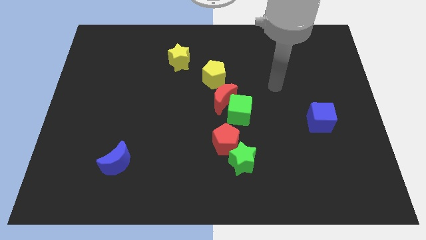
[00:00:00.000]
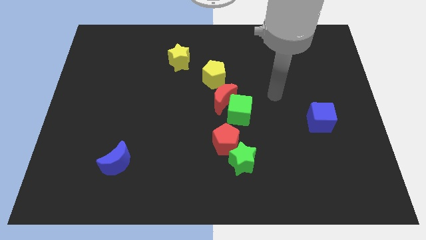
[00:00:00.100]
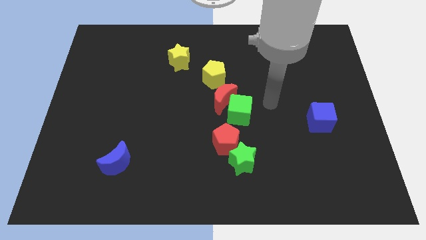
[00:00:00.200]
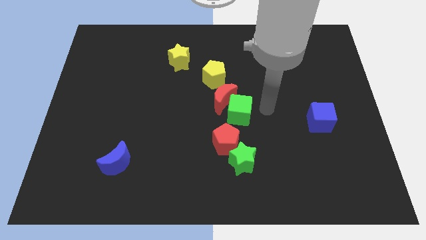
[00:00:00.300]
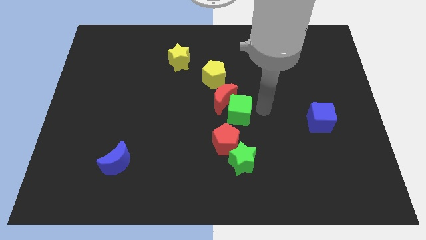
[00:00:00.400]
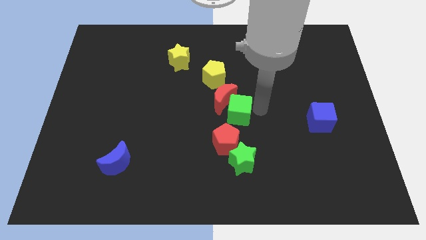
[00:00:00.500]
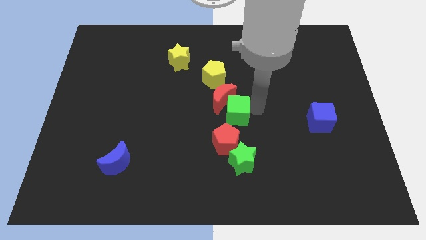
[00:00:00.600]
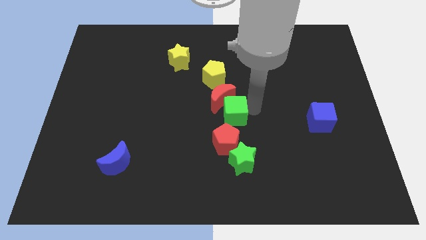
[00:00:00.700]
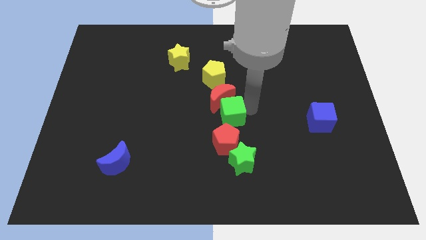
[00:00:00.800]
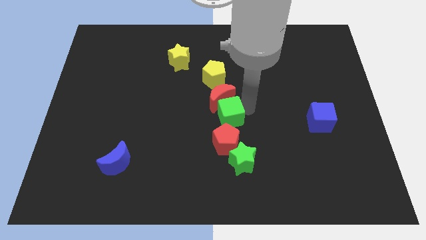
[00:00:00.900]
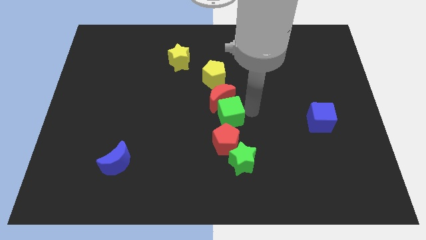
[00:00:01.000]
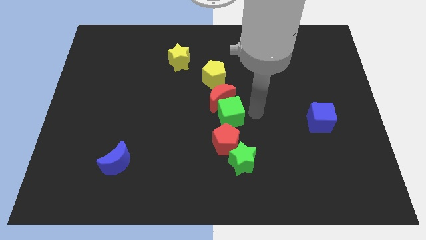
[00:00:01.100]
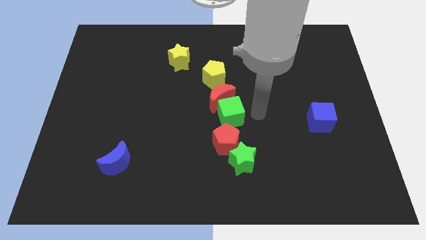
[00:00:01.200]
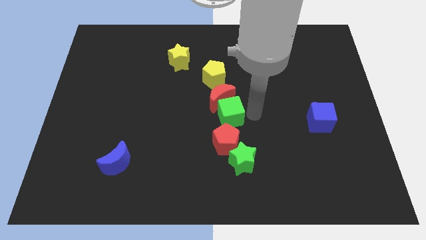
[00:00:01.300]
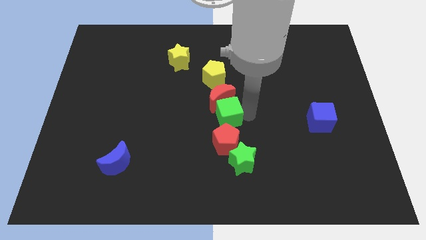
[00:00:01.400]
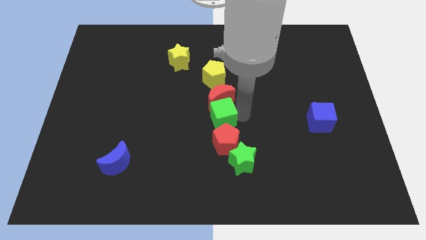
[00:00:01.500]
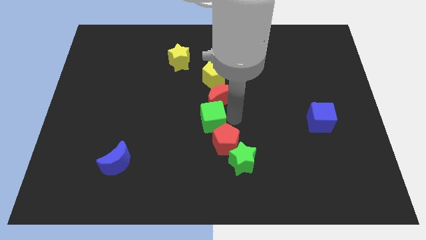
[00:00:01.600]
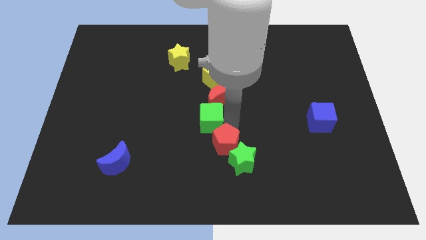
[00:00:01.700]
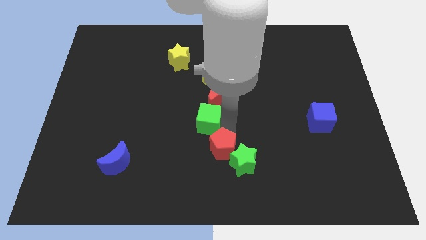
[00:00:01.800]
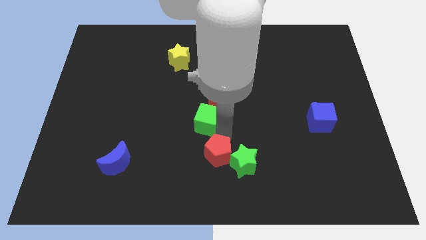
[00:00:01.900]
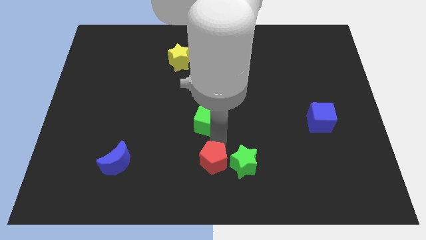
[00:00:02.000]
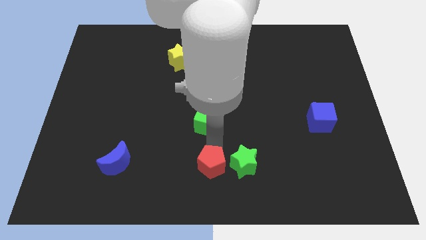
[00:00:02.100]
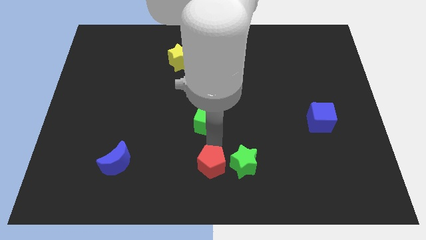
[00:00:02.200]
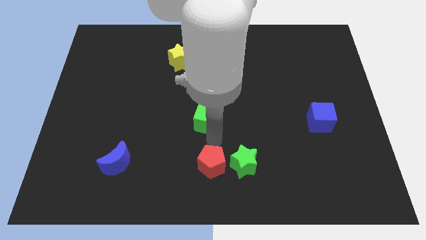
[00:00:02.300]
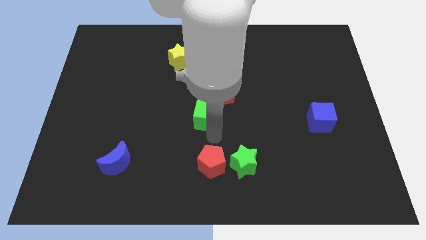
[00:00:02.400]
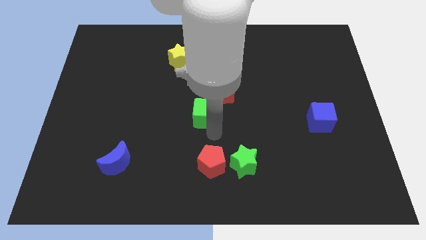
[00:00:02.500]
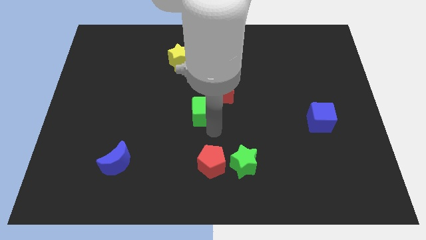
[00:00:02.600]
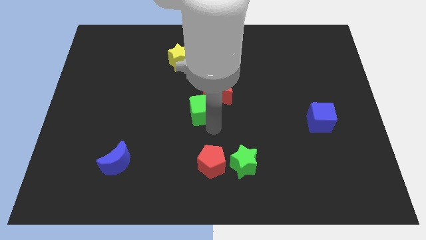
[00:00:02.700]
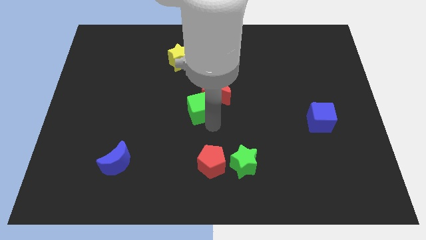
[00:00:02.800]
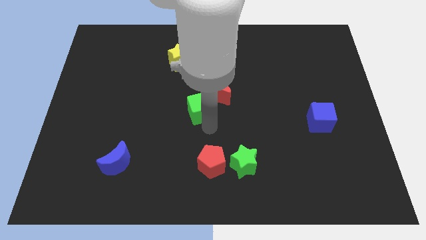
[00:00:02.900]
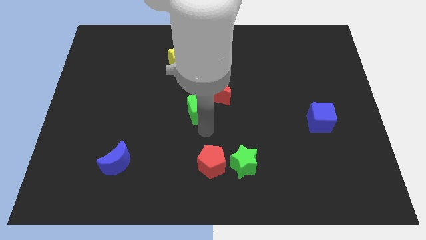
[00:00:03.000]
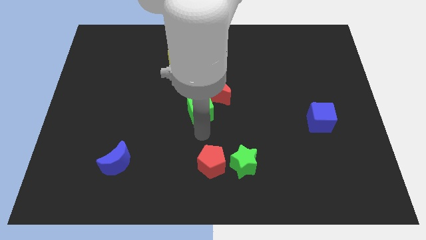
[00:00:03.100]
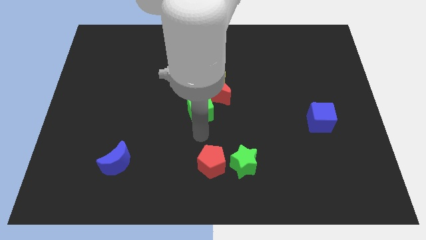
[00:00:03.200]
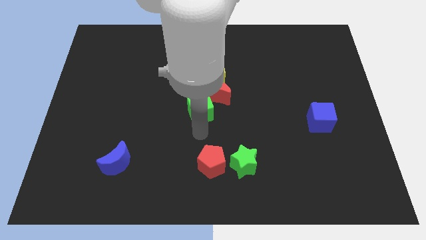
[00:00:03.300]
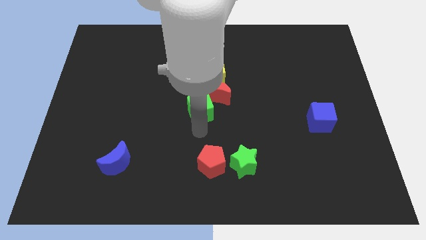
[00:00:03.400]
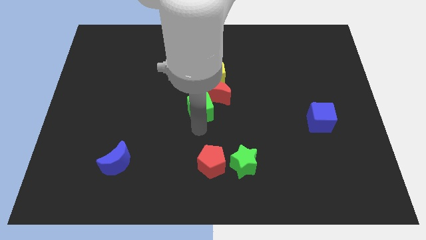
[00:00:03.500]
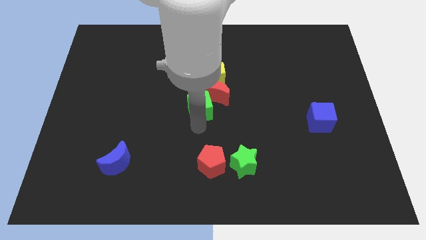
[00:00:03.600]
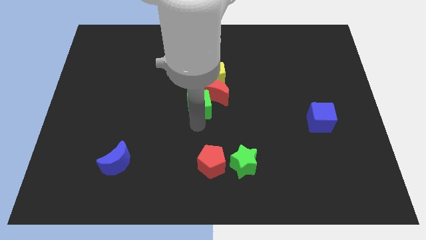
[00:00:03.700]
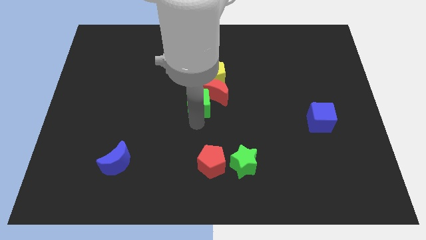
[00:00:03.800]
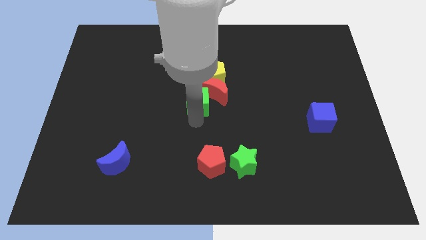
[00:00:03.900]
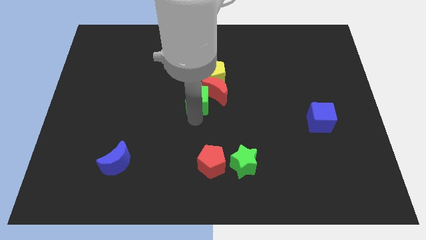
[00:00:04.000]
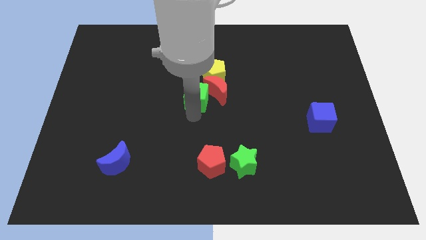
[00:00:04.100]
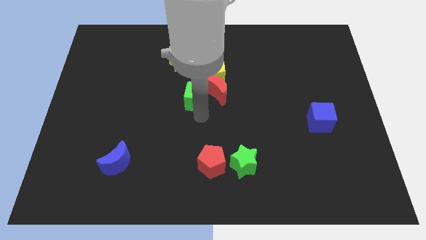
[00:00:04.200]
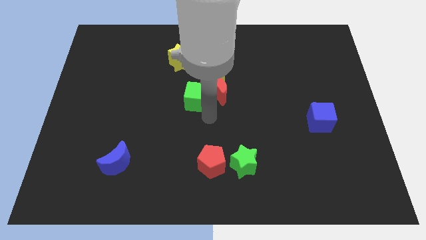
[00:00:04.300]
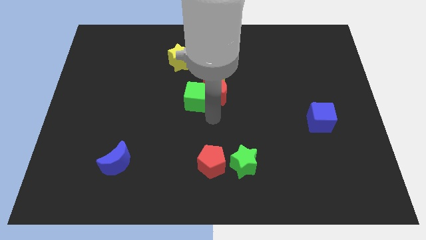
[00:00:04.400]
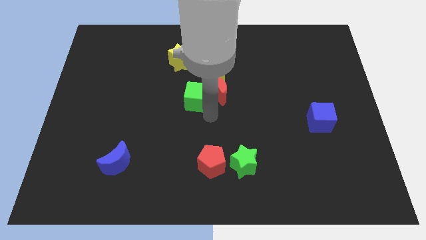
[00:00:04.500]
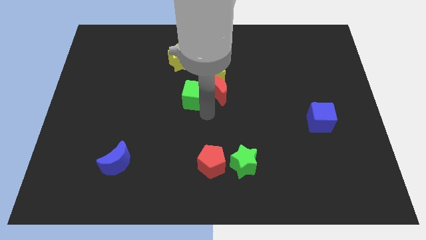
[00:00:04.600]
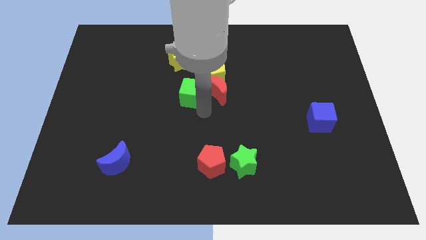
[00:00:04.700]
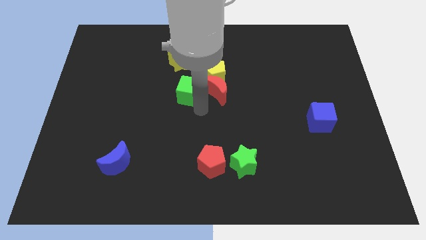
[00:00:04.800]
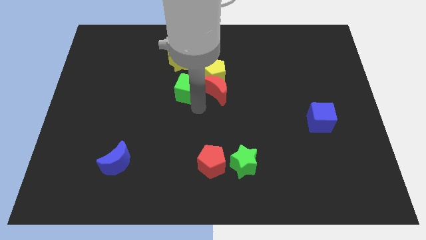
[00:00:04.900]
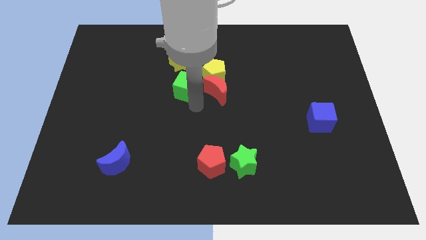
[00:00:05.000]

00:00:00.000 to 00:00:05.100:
push the green cube just left of the yellow pentagon

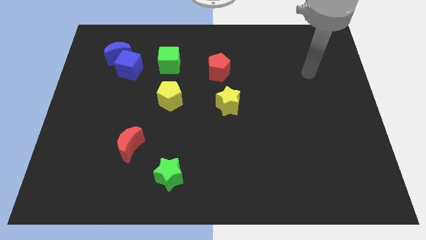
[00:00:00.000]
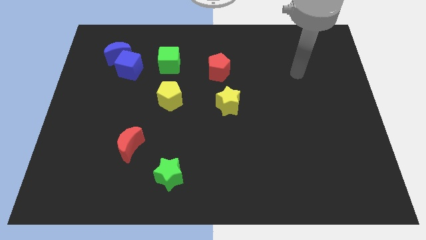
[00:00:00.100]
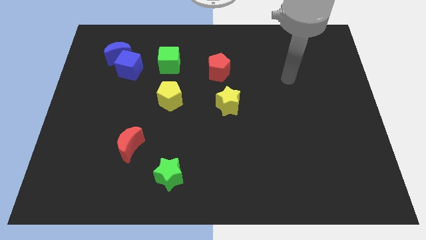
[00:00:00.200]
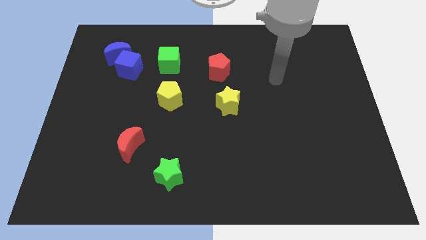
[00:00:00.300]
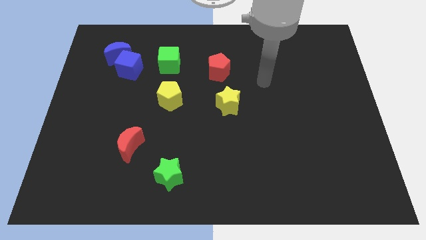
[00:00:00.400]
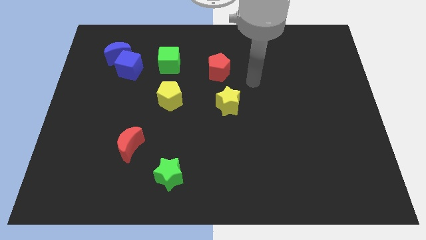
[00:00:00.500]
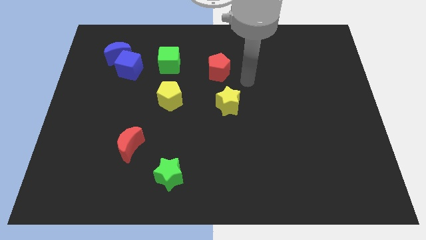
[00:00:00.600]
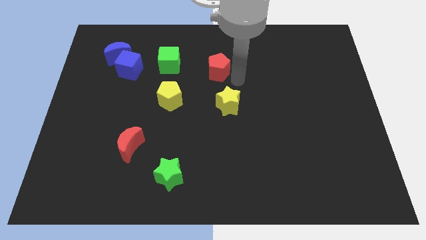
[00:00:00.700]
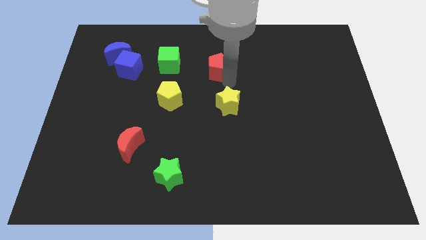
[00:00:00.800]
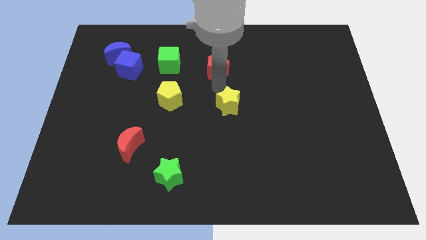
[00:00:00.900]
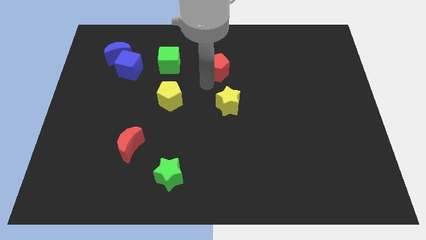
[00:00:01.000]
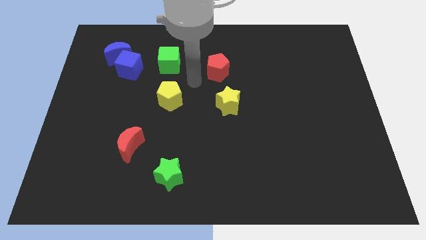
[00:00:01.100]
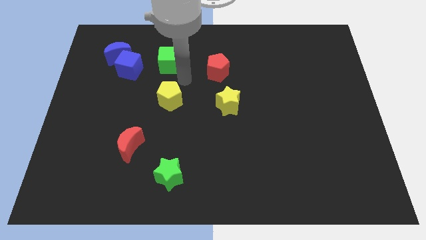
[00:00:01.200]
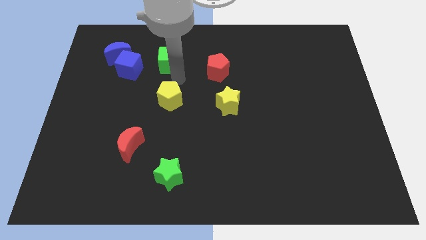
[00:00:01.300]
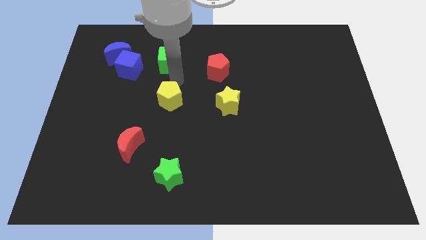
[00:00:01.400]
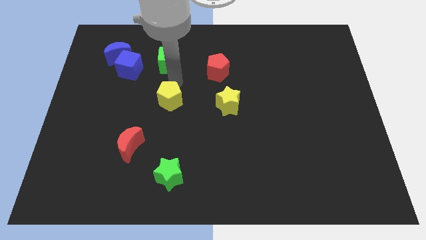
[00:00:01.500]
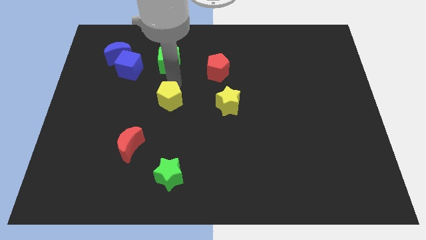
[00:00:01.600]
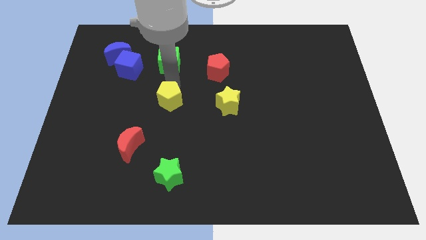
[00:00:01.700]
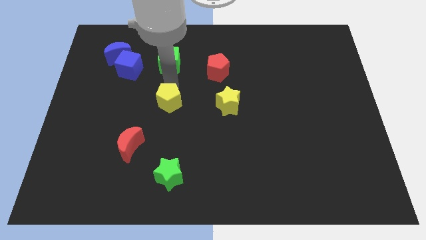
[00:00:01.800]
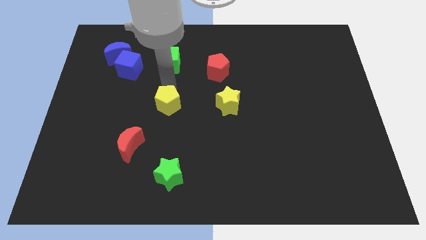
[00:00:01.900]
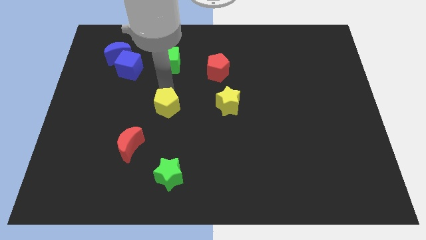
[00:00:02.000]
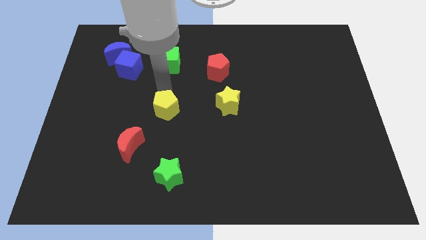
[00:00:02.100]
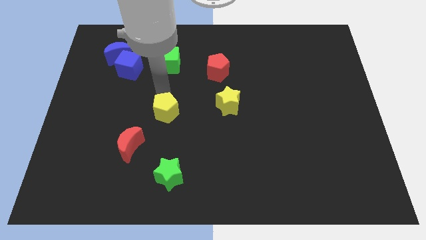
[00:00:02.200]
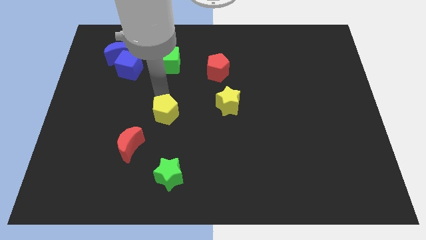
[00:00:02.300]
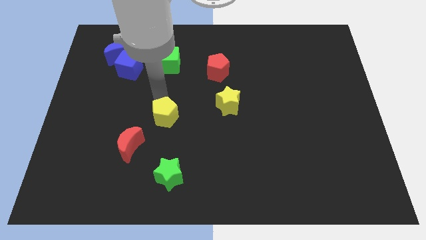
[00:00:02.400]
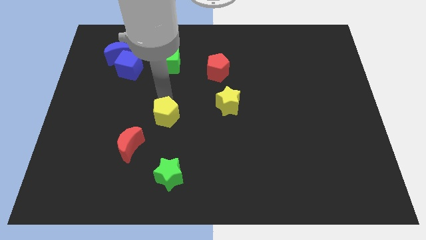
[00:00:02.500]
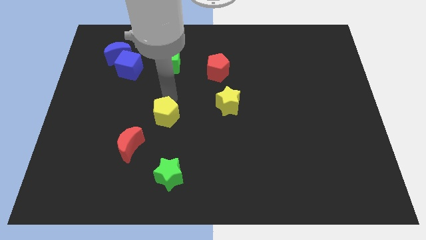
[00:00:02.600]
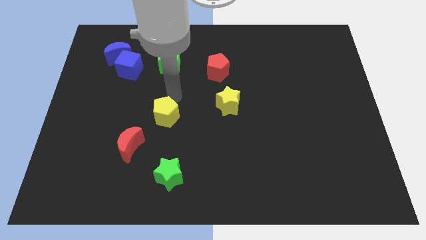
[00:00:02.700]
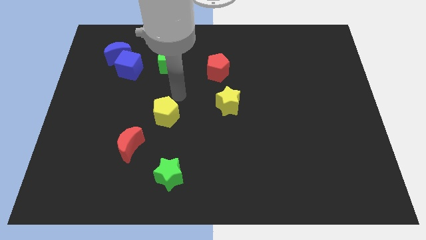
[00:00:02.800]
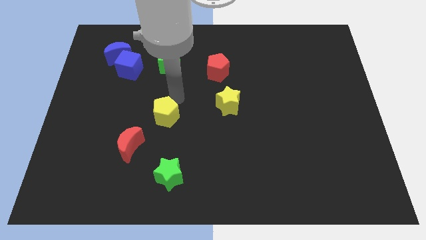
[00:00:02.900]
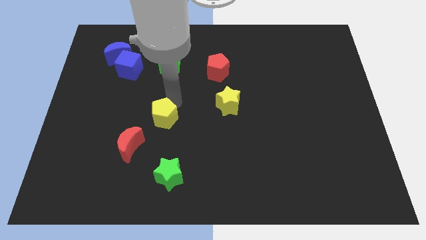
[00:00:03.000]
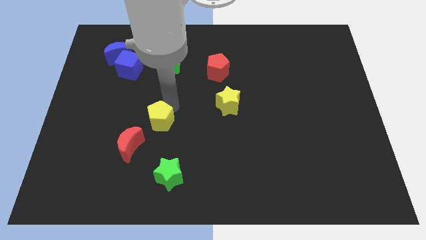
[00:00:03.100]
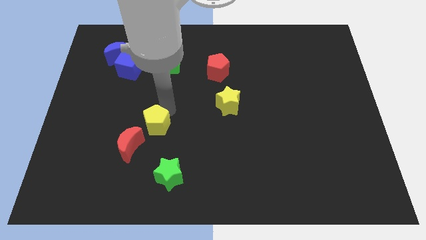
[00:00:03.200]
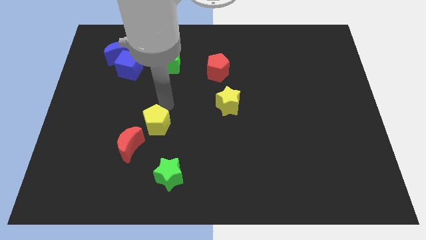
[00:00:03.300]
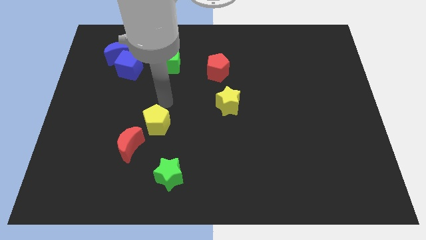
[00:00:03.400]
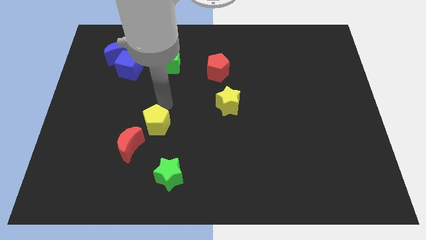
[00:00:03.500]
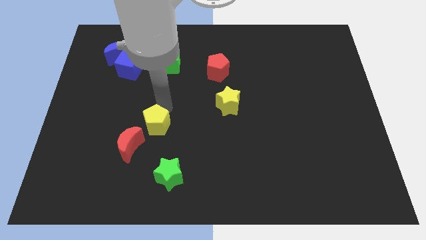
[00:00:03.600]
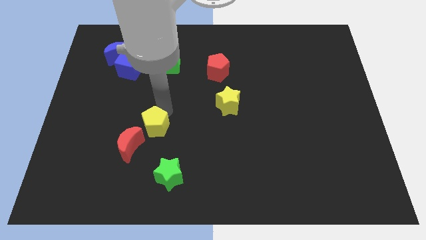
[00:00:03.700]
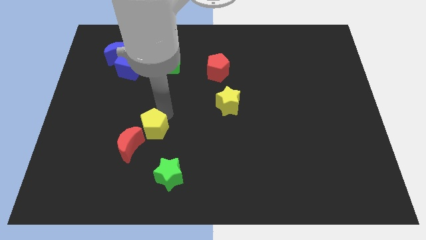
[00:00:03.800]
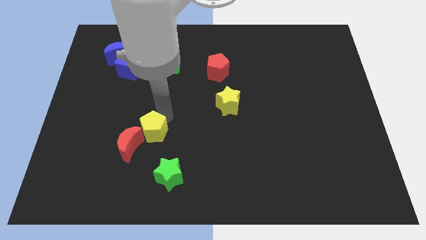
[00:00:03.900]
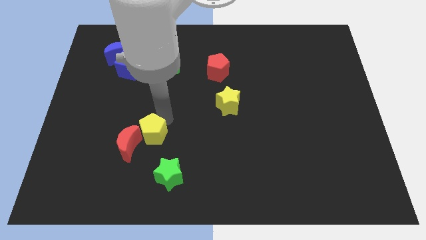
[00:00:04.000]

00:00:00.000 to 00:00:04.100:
move the yellow pentagon to the top left side of the green star
